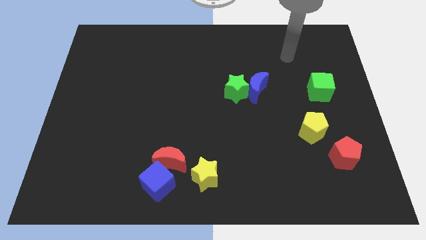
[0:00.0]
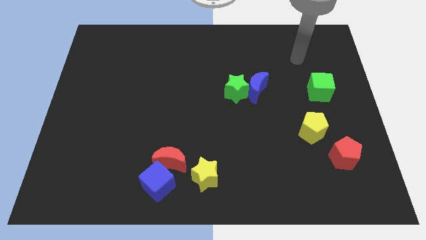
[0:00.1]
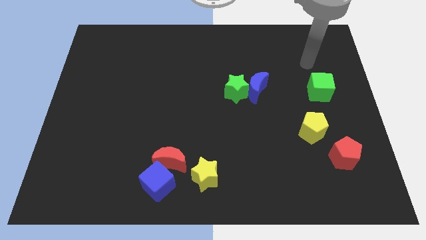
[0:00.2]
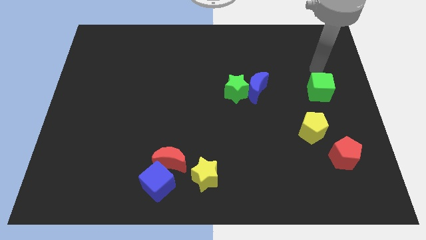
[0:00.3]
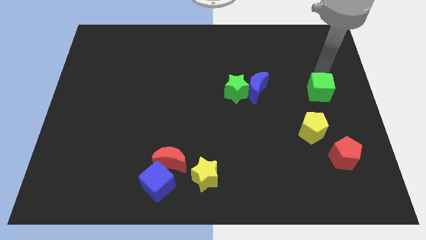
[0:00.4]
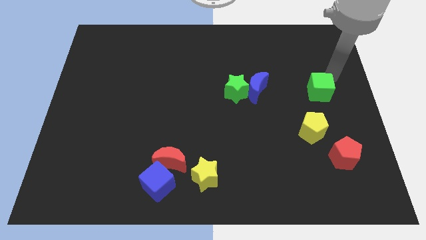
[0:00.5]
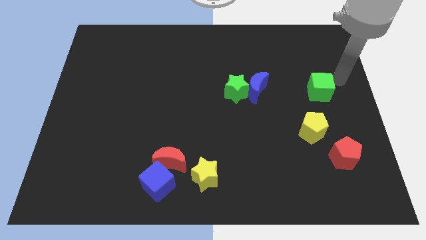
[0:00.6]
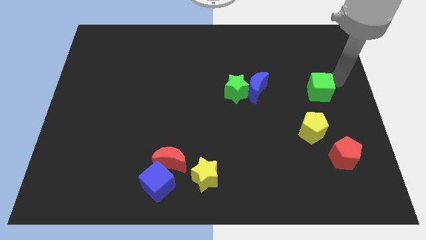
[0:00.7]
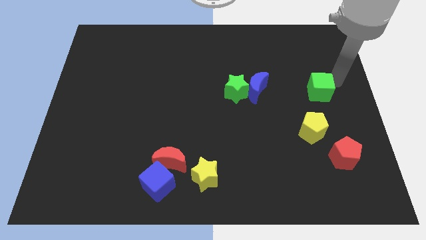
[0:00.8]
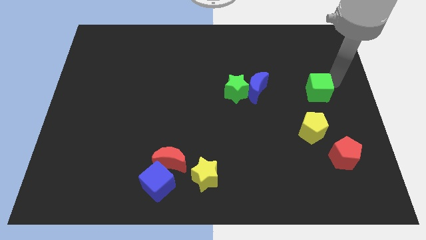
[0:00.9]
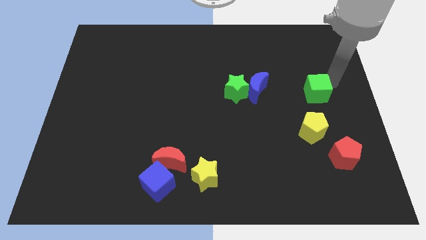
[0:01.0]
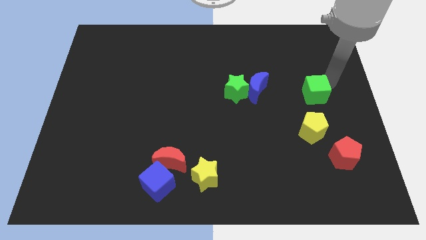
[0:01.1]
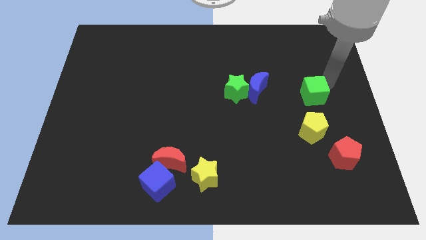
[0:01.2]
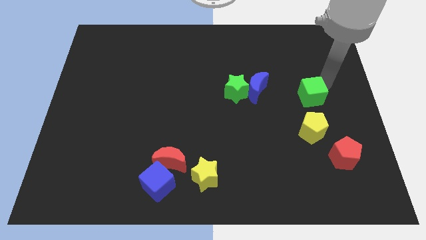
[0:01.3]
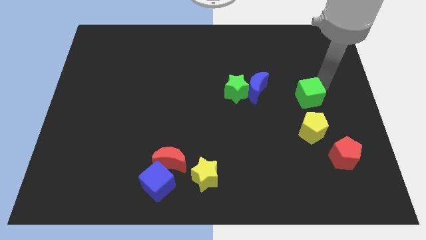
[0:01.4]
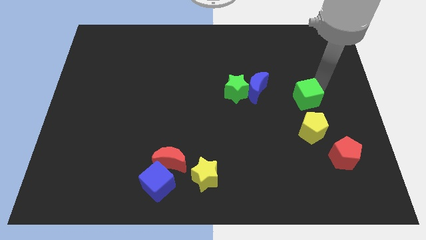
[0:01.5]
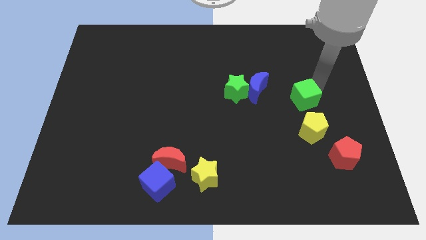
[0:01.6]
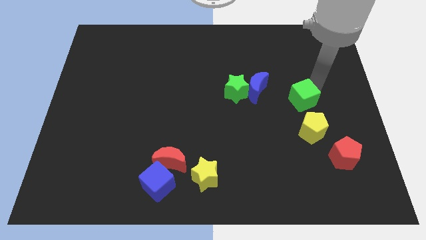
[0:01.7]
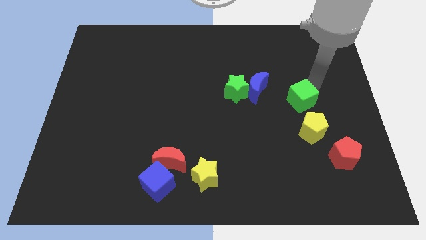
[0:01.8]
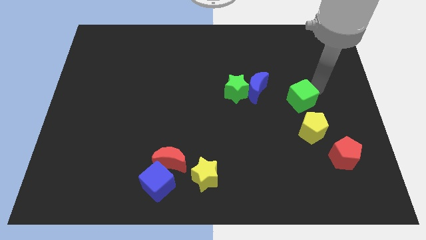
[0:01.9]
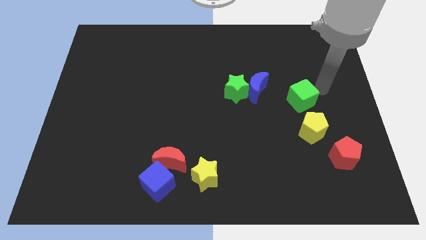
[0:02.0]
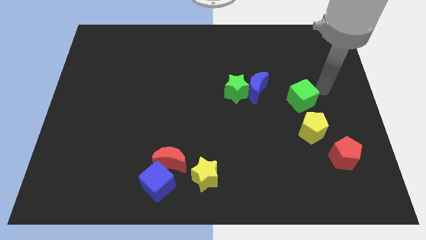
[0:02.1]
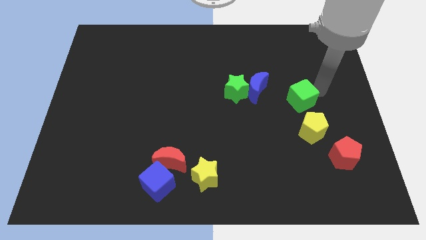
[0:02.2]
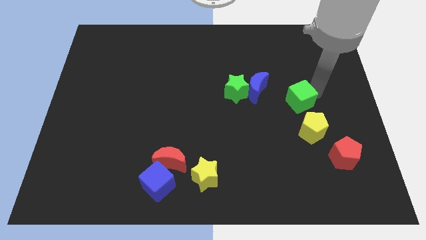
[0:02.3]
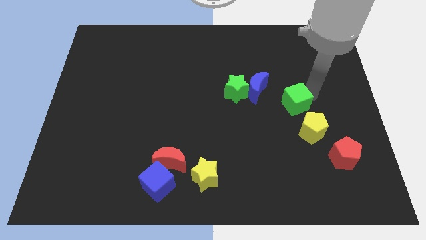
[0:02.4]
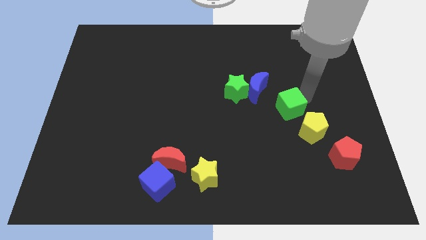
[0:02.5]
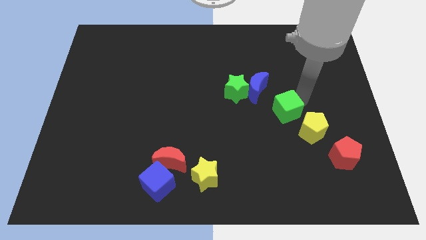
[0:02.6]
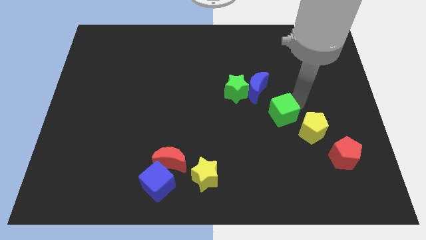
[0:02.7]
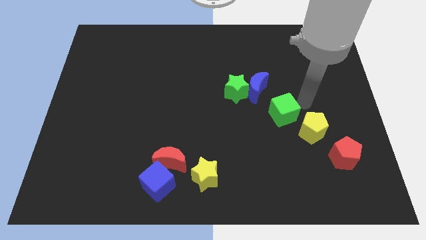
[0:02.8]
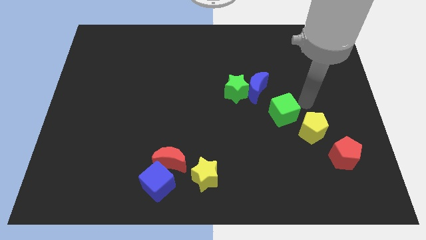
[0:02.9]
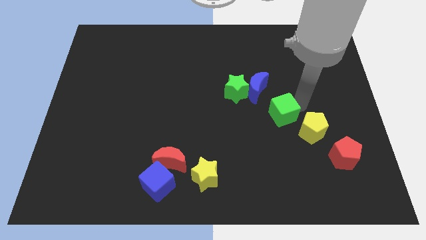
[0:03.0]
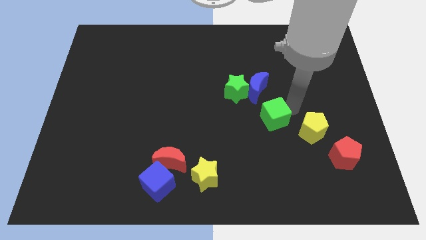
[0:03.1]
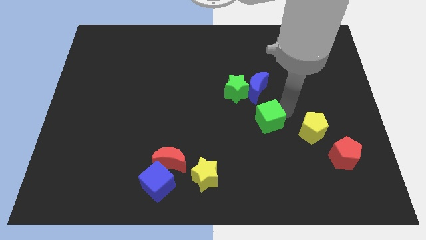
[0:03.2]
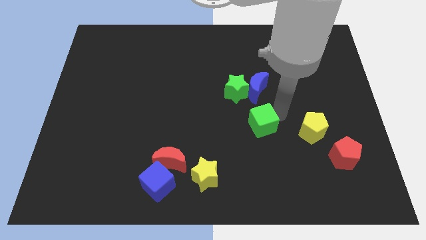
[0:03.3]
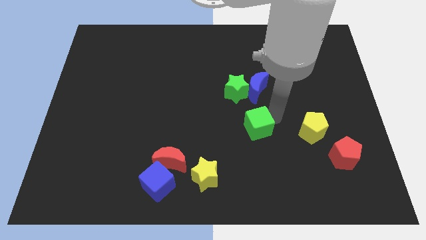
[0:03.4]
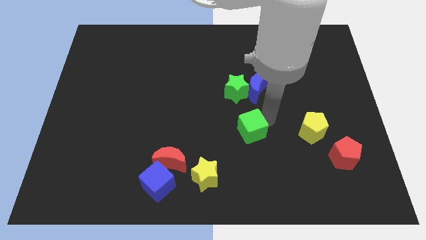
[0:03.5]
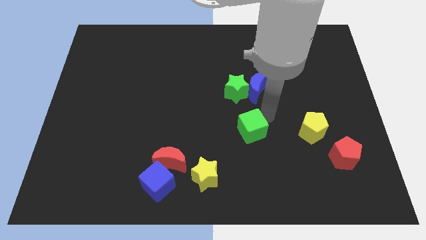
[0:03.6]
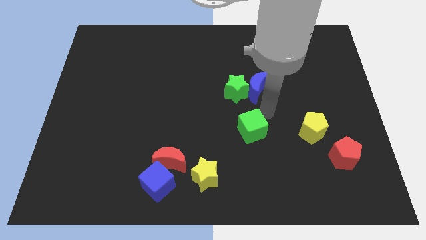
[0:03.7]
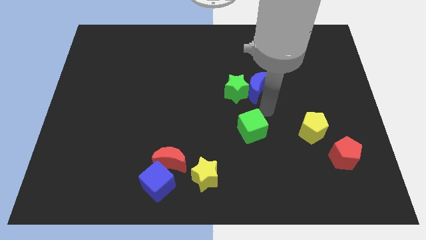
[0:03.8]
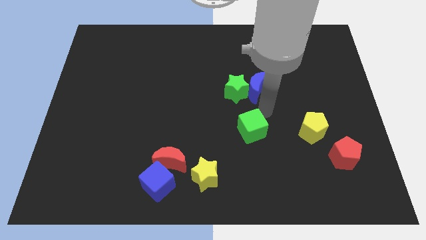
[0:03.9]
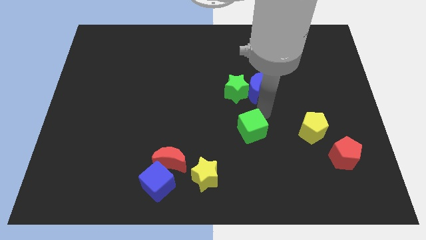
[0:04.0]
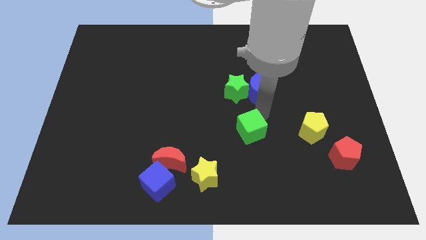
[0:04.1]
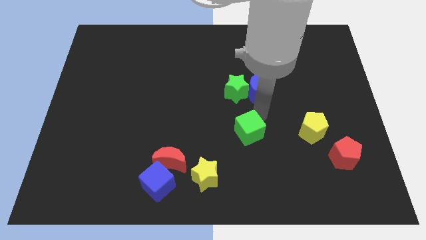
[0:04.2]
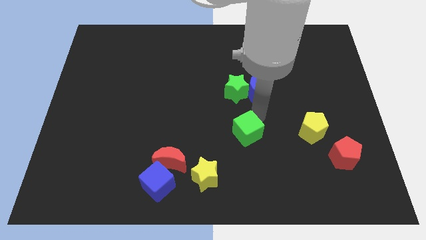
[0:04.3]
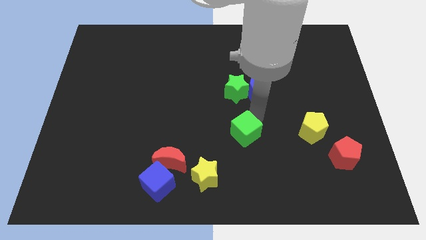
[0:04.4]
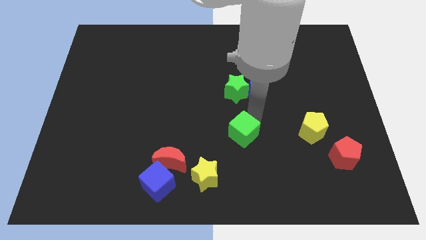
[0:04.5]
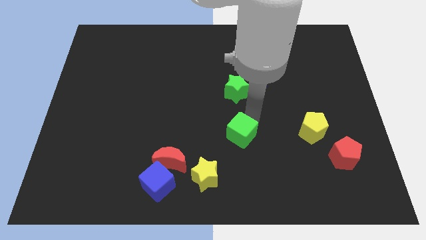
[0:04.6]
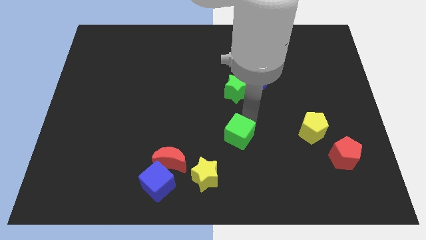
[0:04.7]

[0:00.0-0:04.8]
move the green cube to the top right of the yellow star

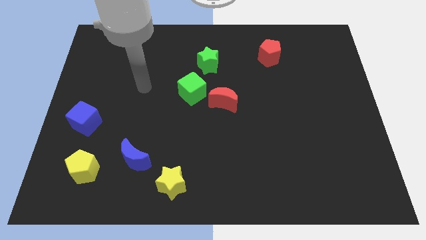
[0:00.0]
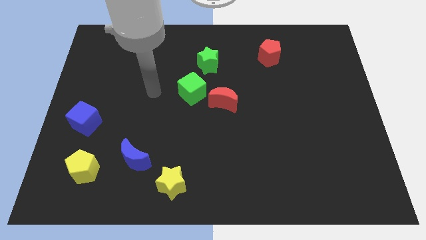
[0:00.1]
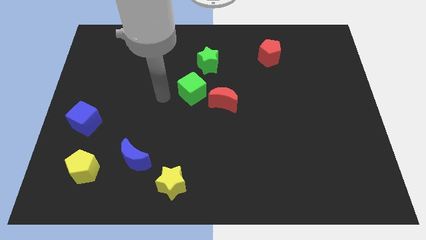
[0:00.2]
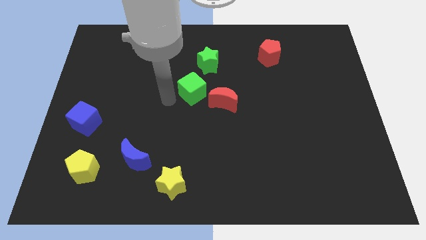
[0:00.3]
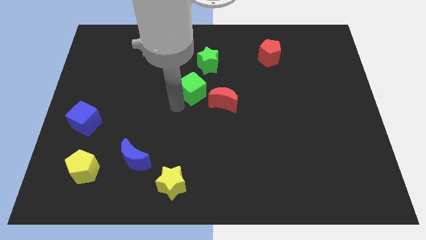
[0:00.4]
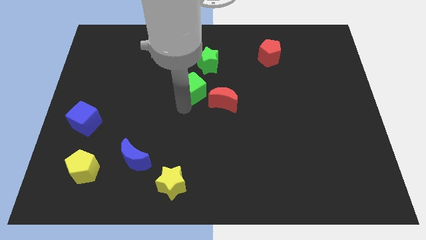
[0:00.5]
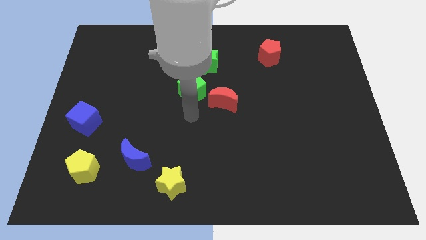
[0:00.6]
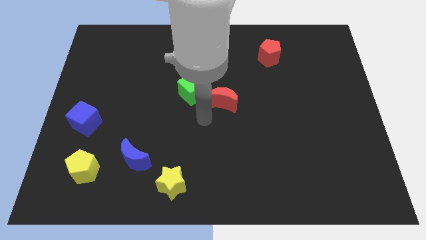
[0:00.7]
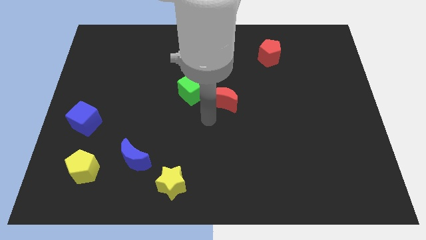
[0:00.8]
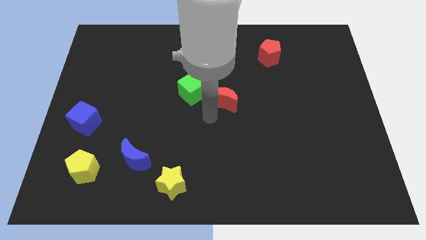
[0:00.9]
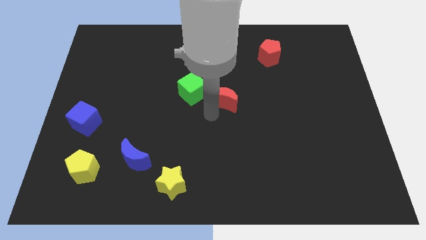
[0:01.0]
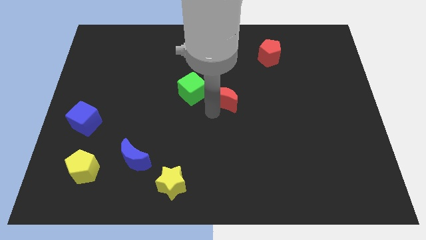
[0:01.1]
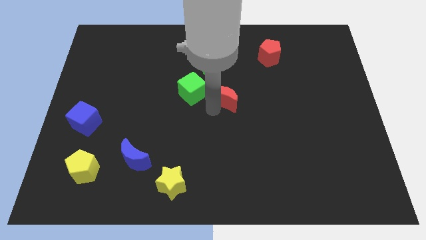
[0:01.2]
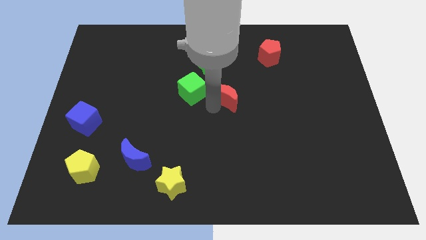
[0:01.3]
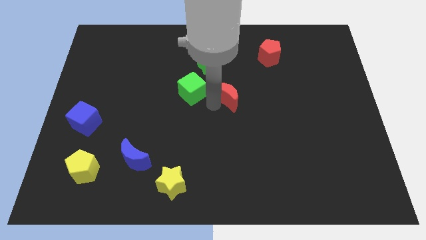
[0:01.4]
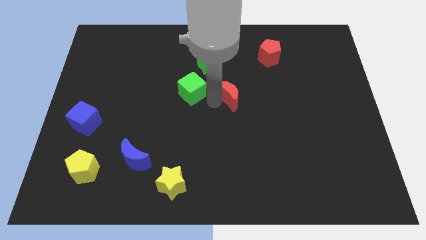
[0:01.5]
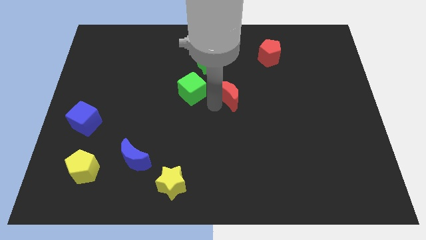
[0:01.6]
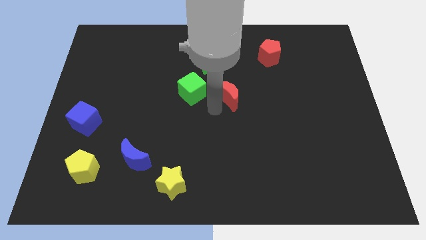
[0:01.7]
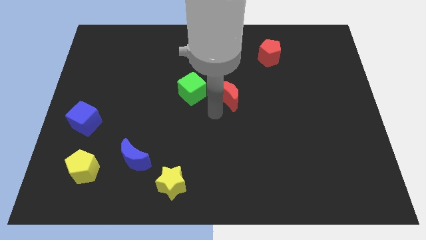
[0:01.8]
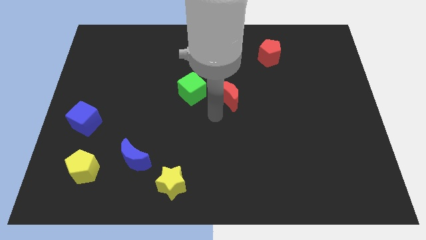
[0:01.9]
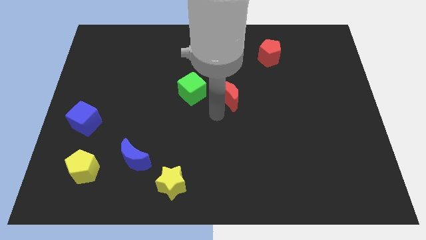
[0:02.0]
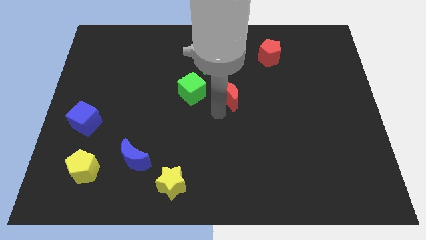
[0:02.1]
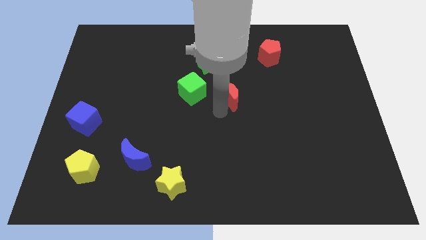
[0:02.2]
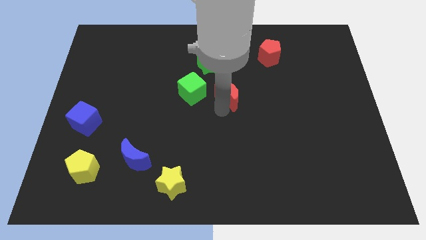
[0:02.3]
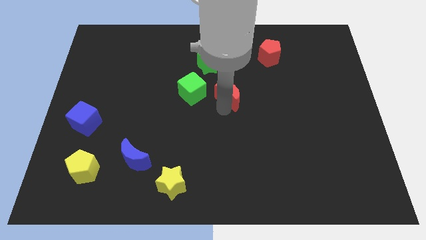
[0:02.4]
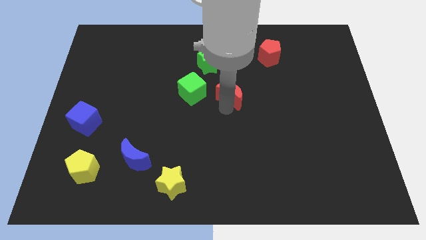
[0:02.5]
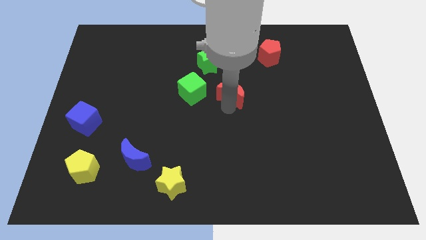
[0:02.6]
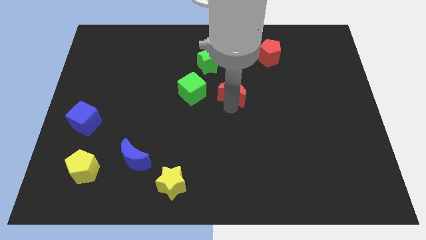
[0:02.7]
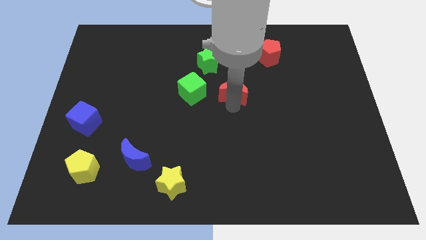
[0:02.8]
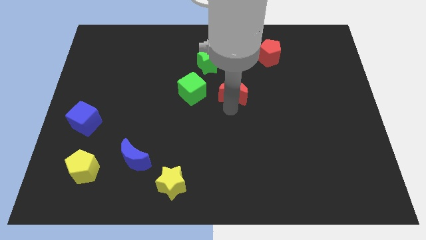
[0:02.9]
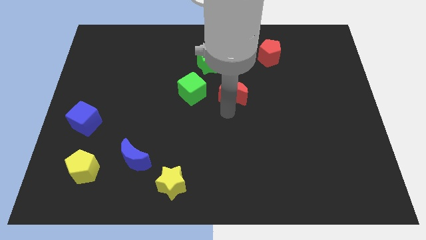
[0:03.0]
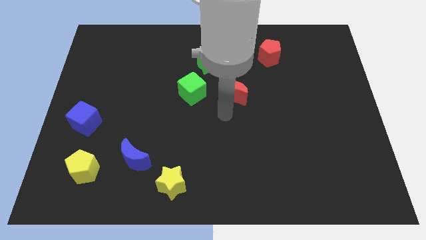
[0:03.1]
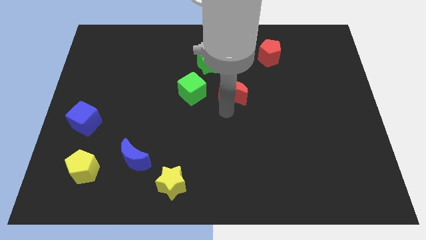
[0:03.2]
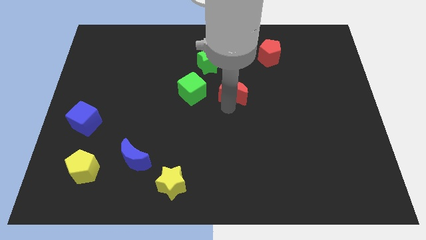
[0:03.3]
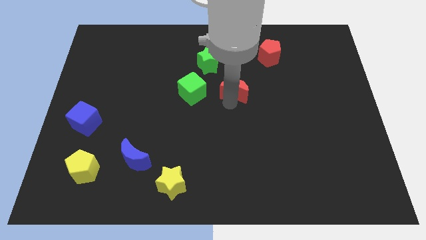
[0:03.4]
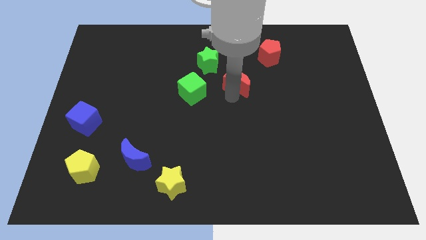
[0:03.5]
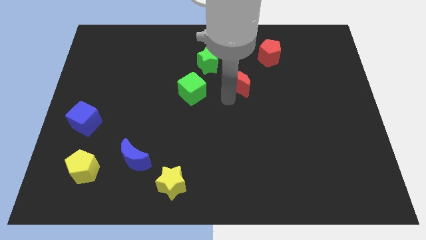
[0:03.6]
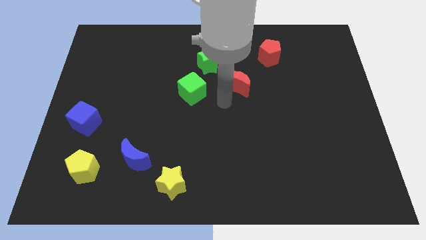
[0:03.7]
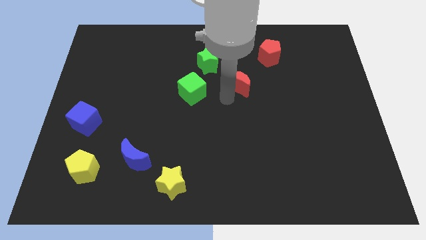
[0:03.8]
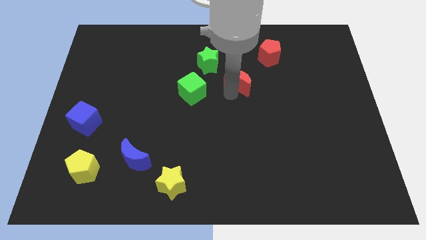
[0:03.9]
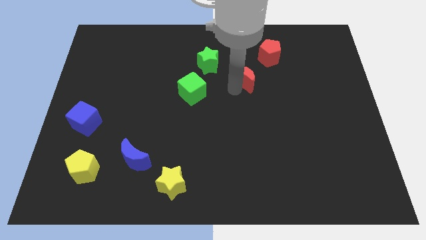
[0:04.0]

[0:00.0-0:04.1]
move the red moon to the bottom left side of the red pentagon
